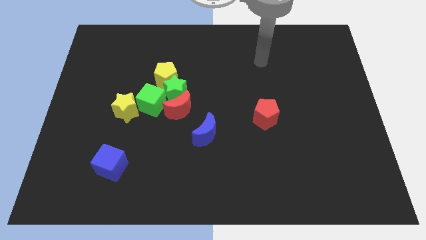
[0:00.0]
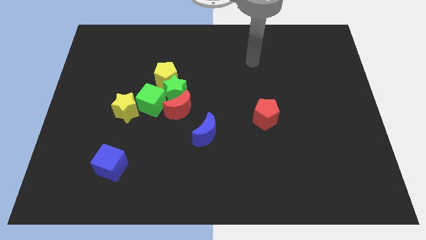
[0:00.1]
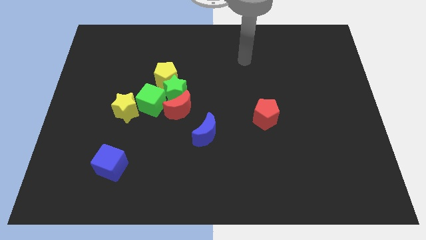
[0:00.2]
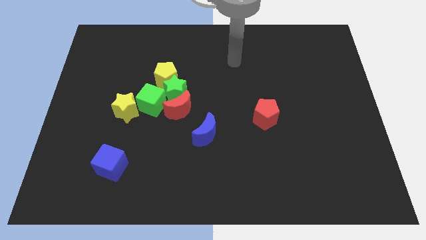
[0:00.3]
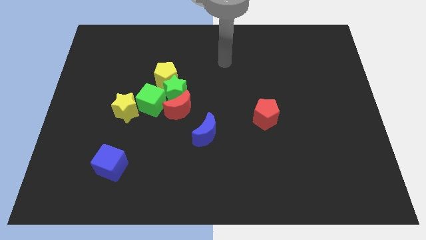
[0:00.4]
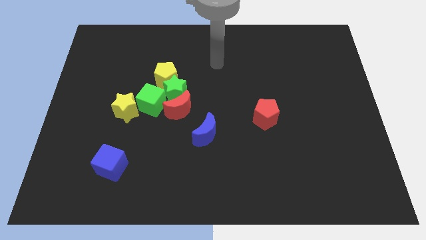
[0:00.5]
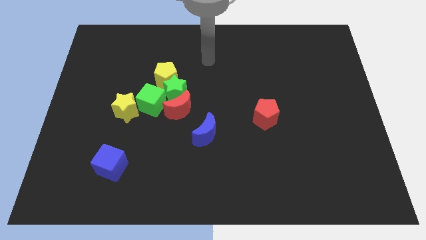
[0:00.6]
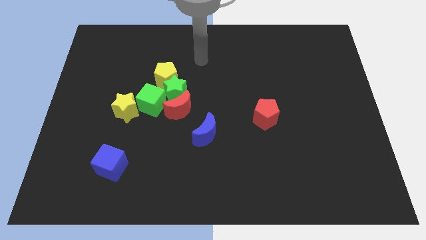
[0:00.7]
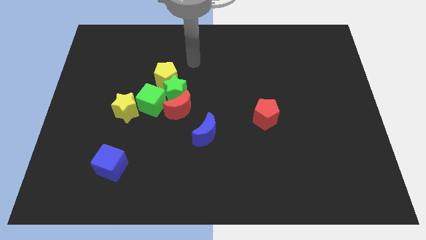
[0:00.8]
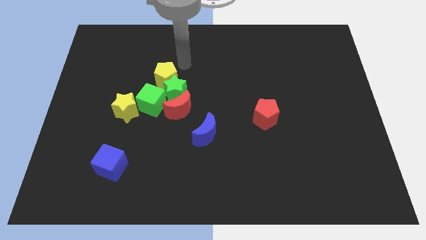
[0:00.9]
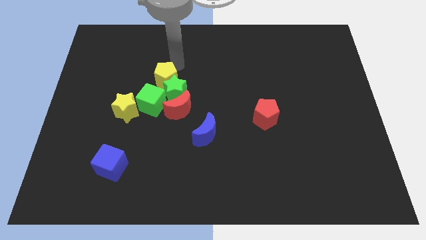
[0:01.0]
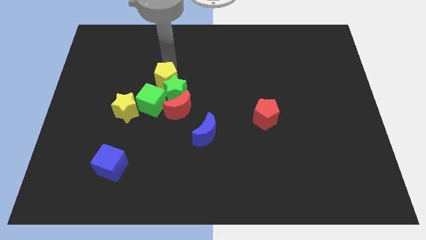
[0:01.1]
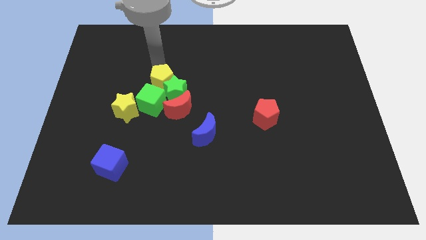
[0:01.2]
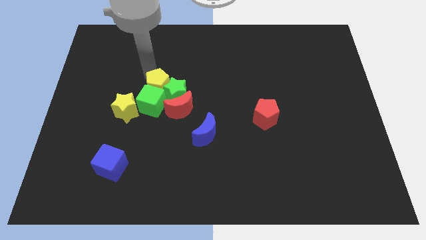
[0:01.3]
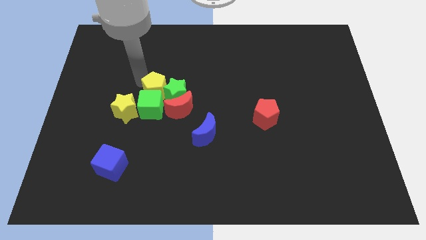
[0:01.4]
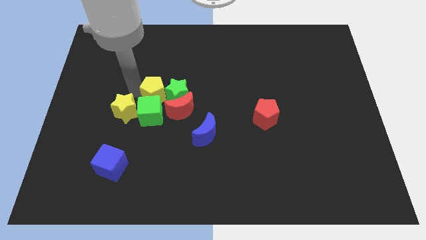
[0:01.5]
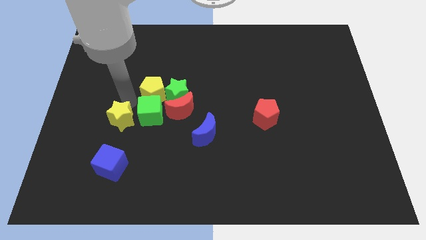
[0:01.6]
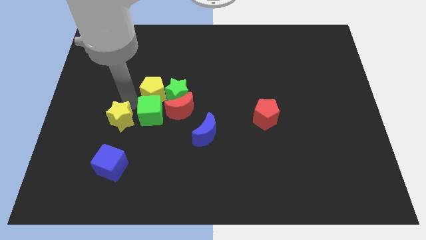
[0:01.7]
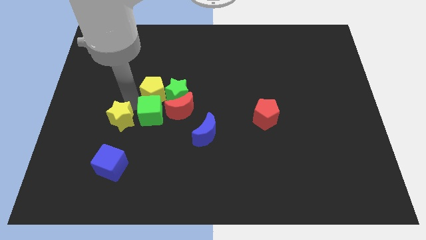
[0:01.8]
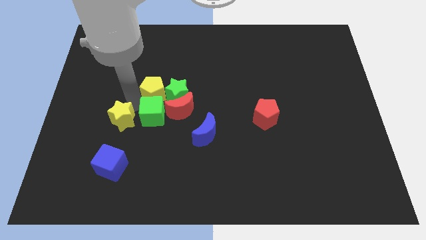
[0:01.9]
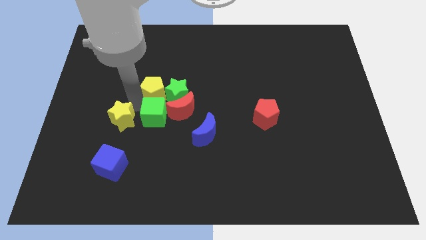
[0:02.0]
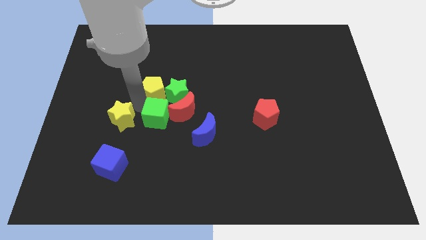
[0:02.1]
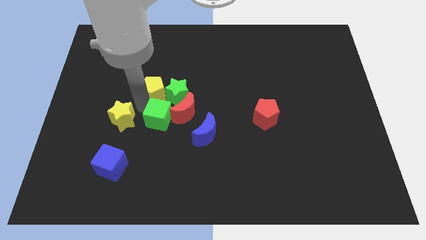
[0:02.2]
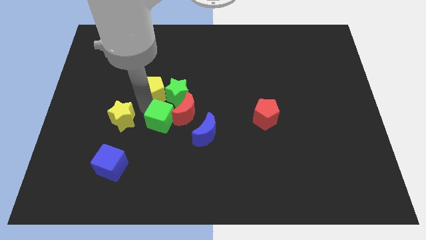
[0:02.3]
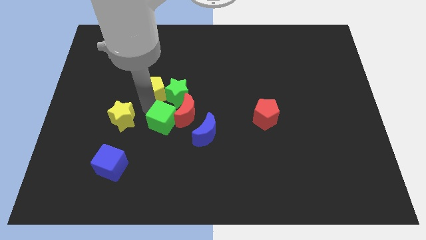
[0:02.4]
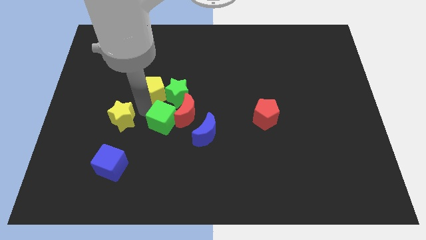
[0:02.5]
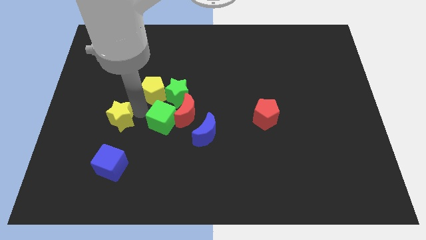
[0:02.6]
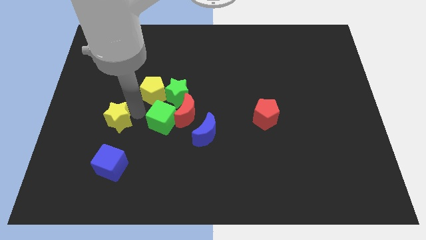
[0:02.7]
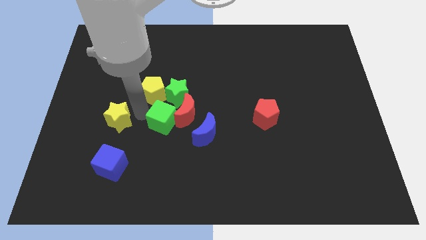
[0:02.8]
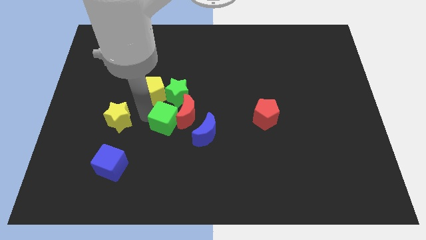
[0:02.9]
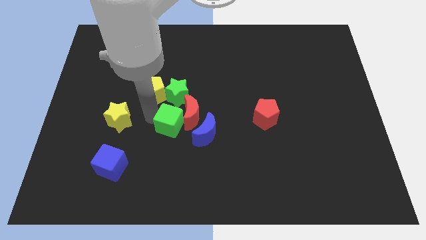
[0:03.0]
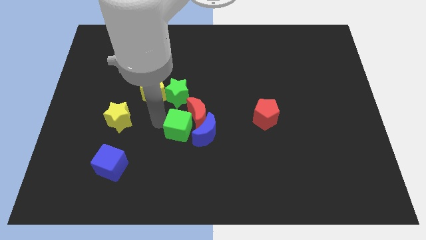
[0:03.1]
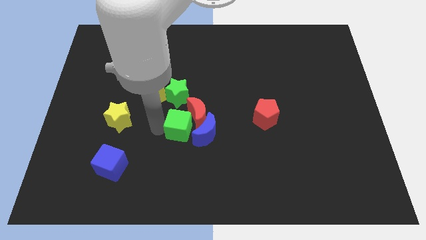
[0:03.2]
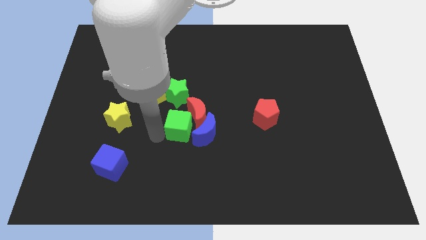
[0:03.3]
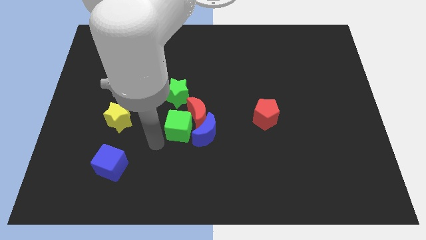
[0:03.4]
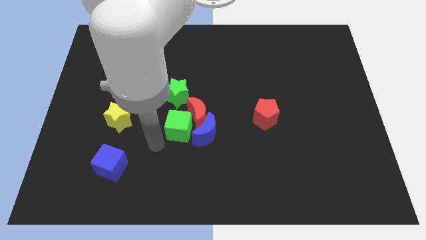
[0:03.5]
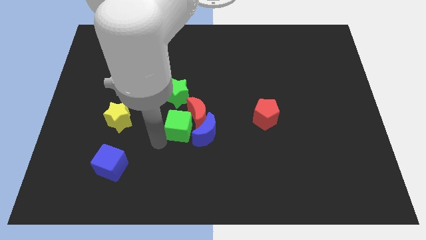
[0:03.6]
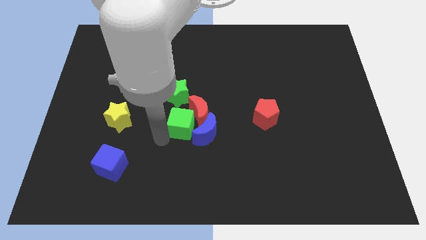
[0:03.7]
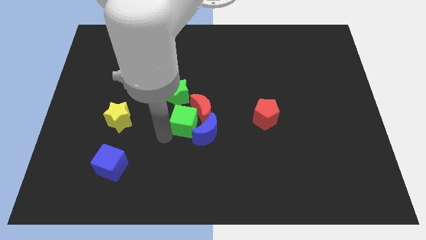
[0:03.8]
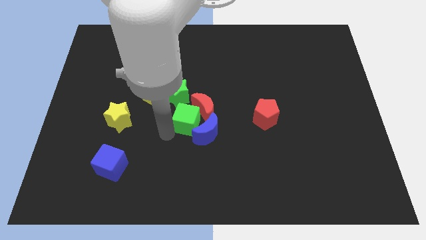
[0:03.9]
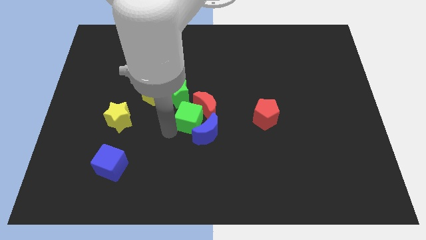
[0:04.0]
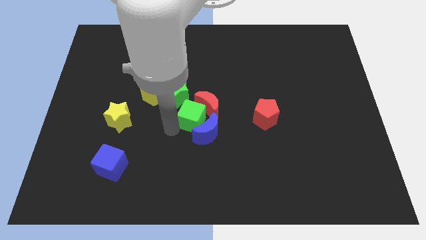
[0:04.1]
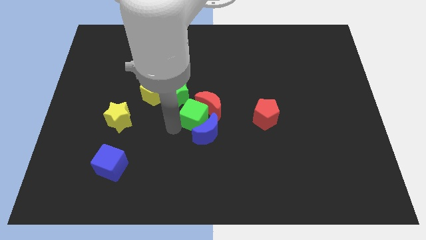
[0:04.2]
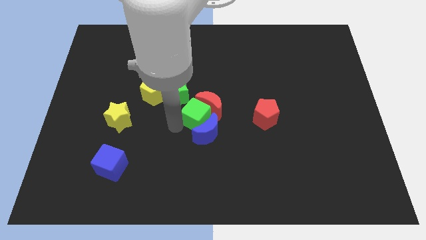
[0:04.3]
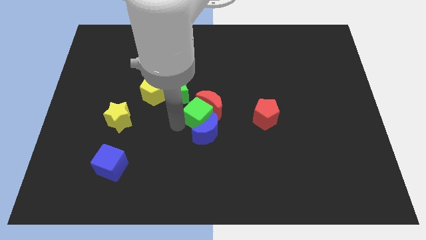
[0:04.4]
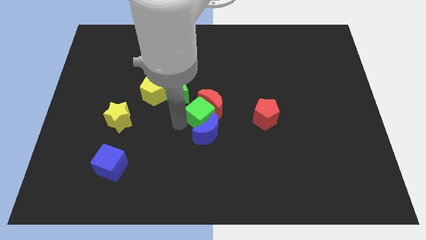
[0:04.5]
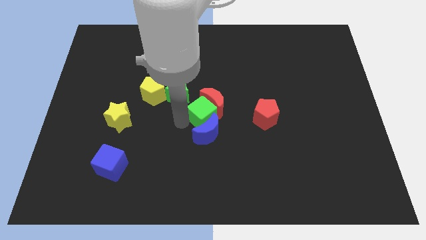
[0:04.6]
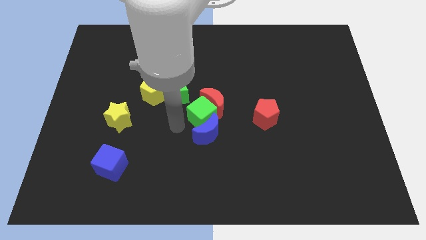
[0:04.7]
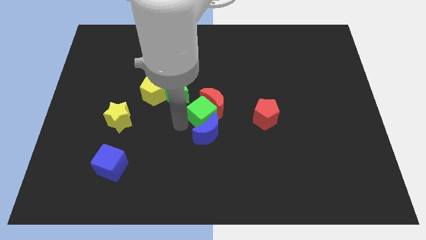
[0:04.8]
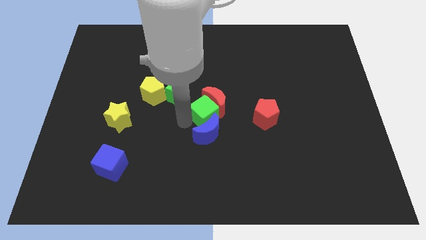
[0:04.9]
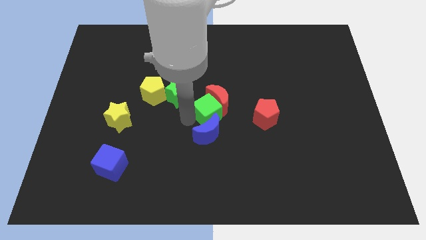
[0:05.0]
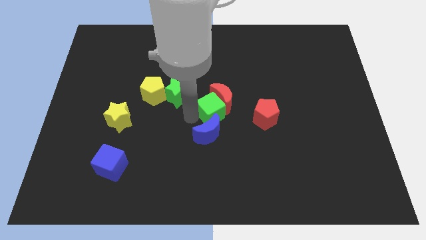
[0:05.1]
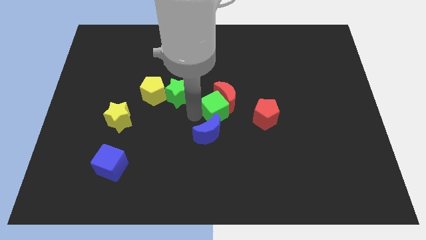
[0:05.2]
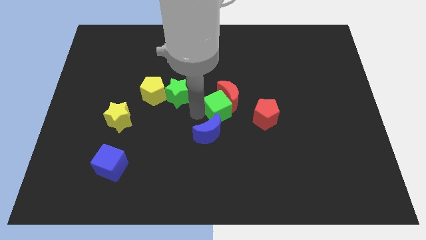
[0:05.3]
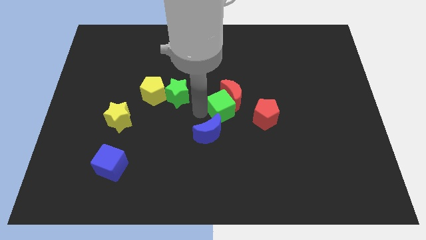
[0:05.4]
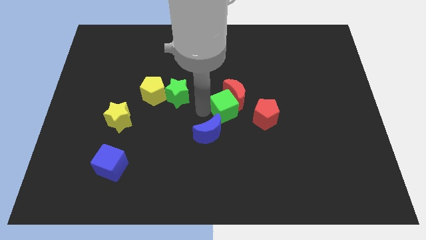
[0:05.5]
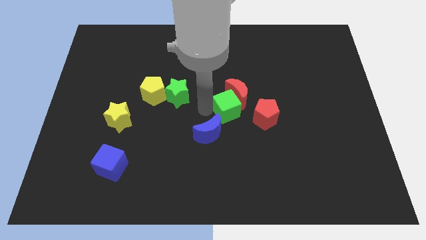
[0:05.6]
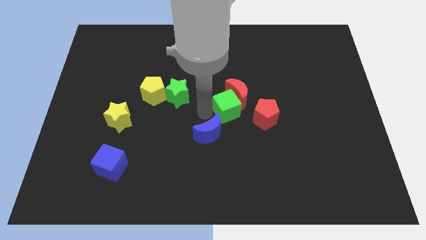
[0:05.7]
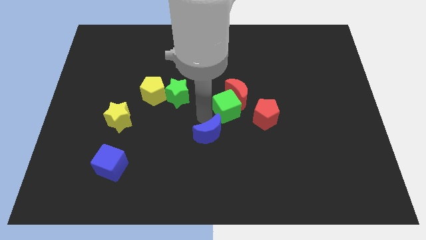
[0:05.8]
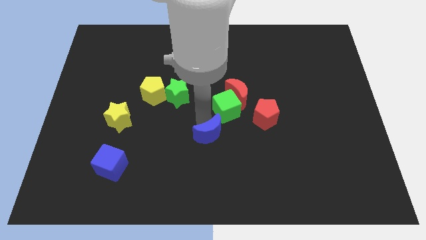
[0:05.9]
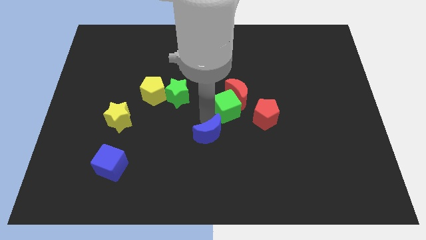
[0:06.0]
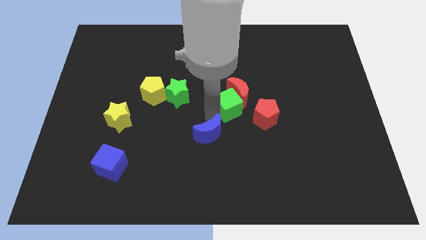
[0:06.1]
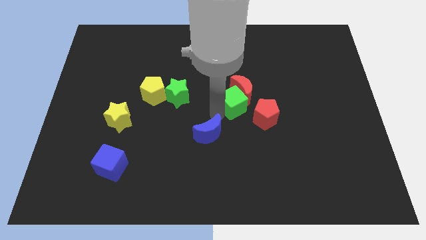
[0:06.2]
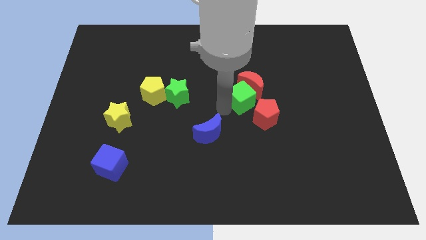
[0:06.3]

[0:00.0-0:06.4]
push the green cube to the right

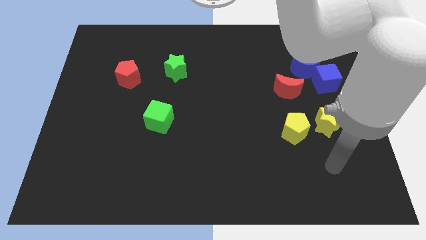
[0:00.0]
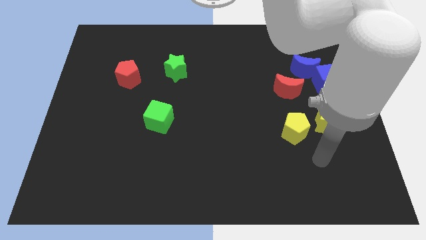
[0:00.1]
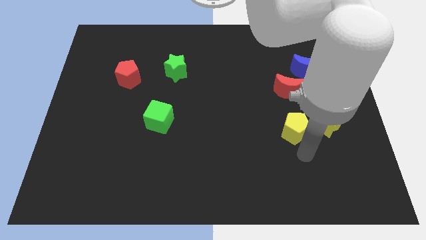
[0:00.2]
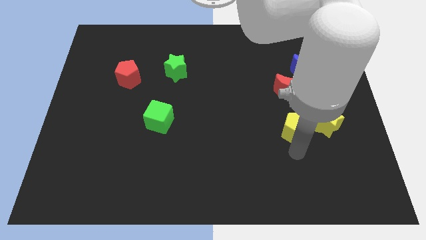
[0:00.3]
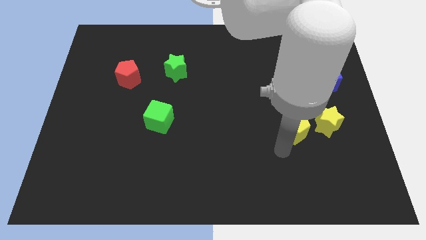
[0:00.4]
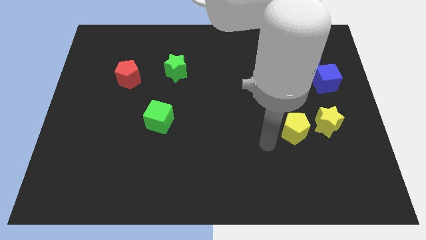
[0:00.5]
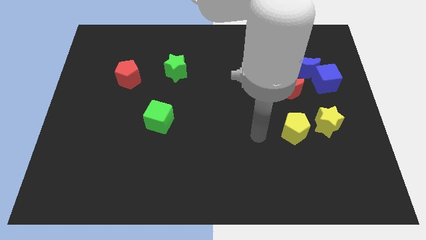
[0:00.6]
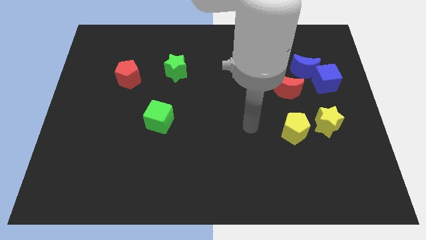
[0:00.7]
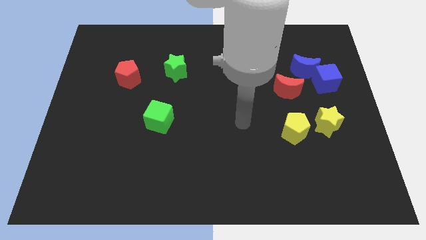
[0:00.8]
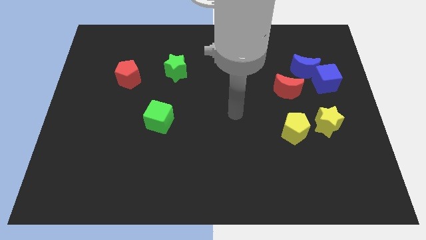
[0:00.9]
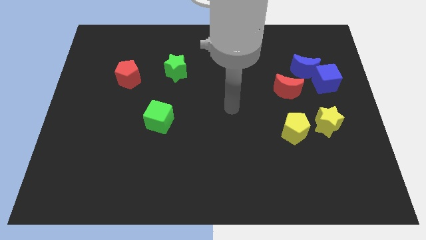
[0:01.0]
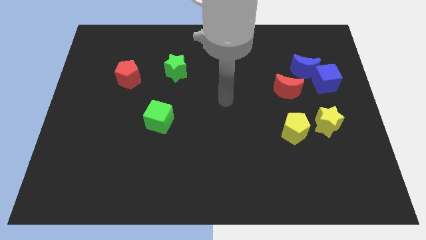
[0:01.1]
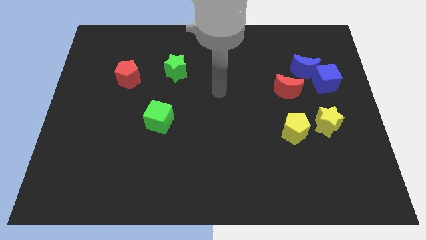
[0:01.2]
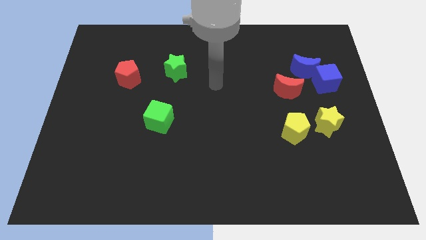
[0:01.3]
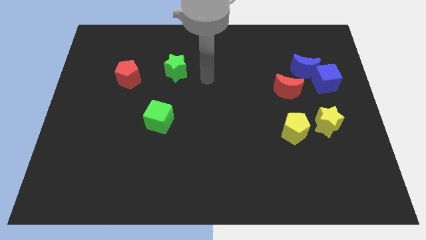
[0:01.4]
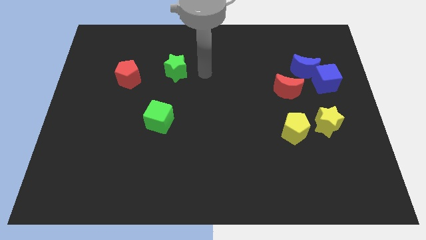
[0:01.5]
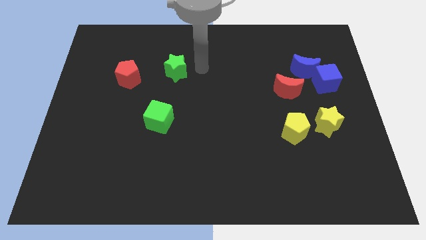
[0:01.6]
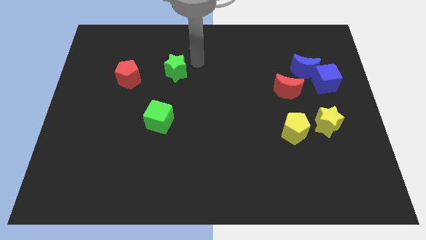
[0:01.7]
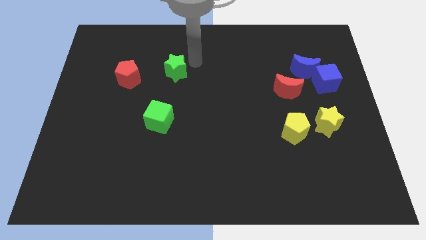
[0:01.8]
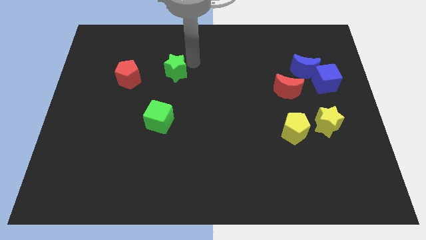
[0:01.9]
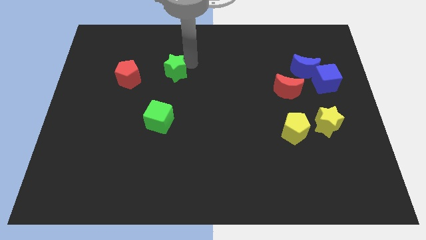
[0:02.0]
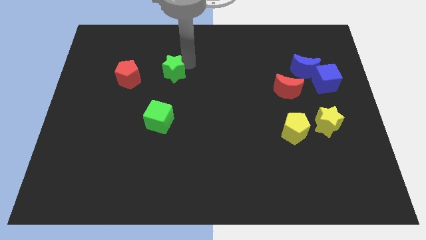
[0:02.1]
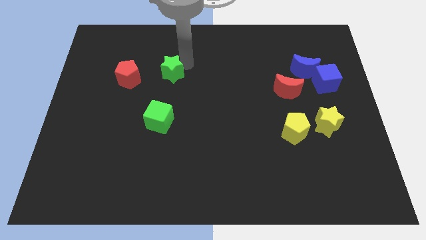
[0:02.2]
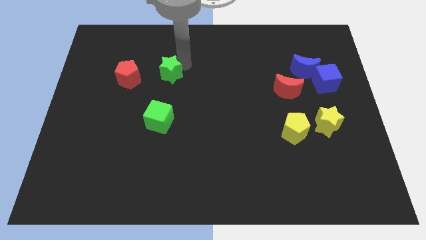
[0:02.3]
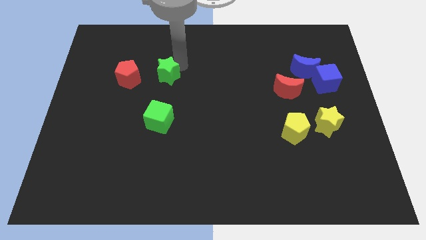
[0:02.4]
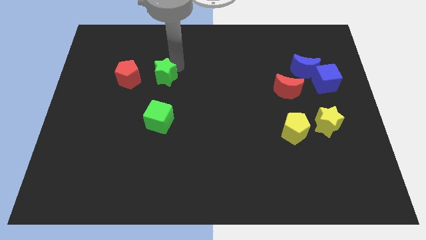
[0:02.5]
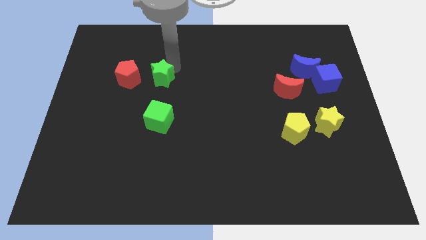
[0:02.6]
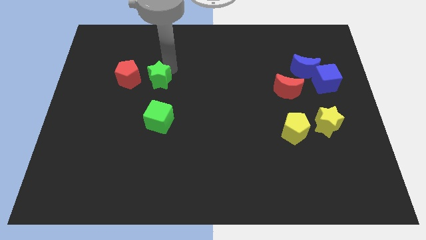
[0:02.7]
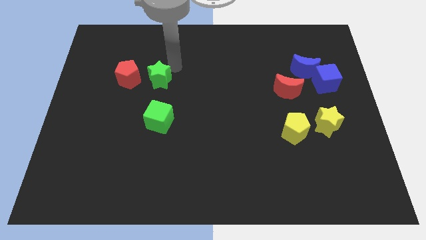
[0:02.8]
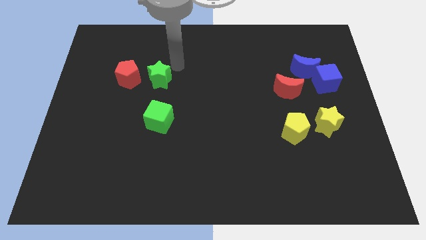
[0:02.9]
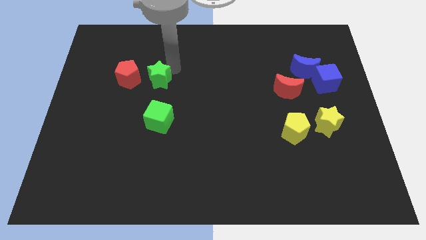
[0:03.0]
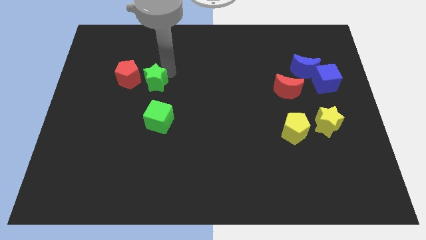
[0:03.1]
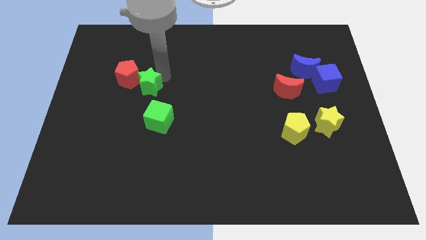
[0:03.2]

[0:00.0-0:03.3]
push the green star down and then to the left a little bit
